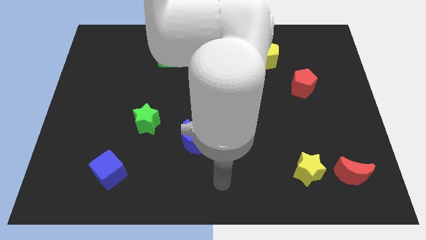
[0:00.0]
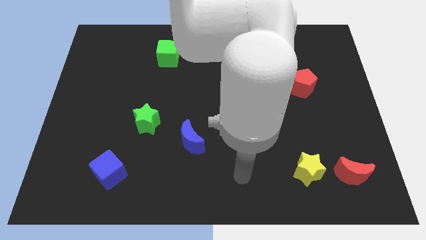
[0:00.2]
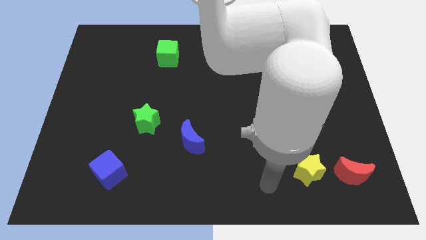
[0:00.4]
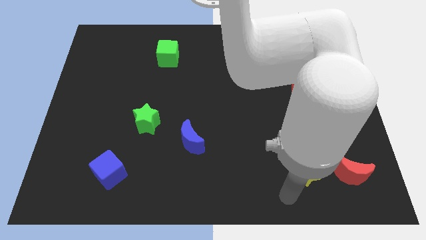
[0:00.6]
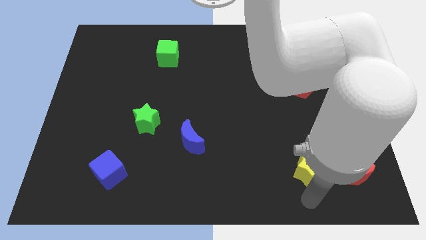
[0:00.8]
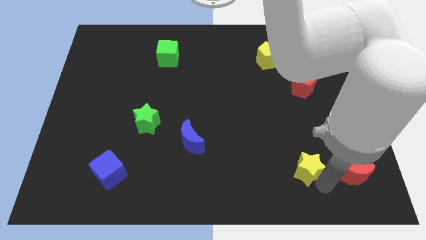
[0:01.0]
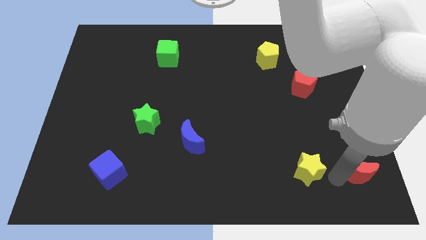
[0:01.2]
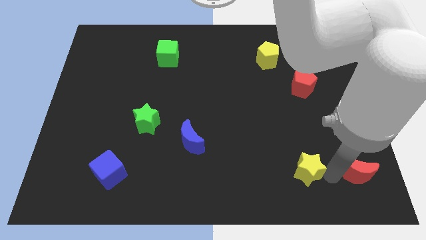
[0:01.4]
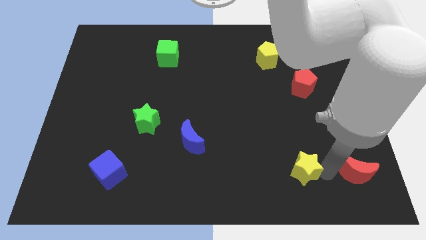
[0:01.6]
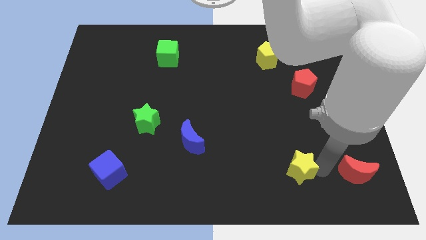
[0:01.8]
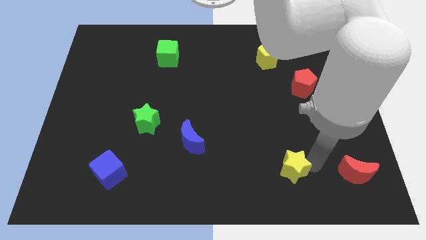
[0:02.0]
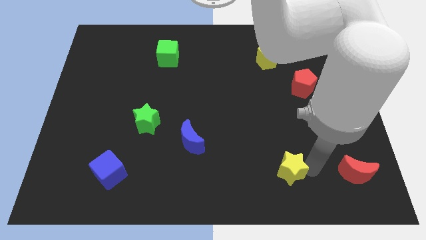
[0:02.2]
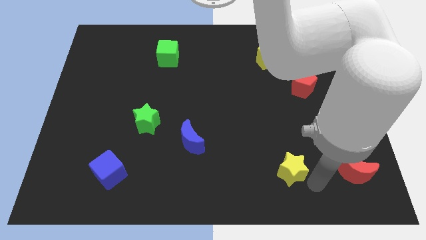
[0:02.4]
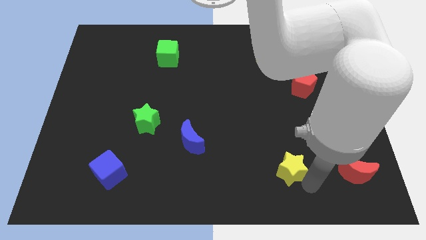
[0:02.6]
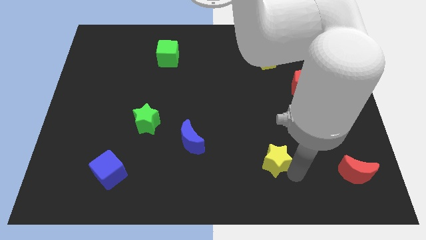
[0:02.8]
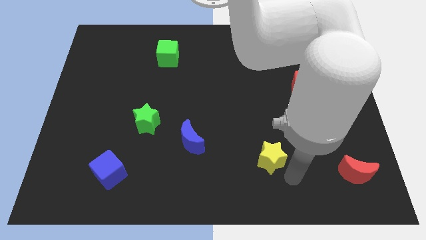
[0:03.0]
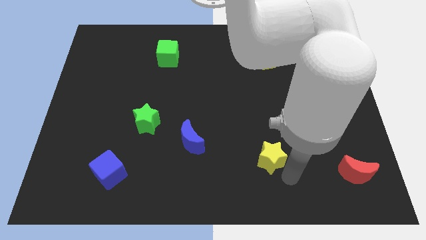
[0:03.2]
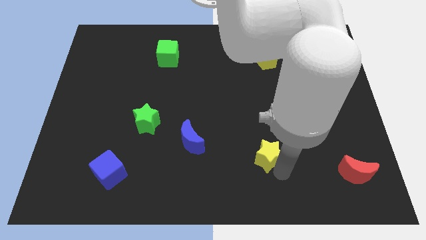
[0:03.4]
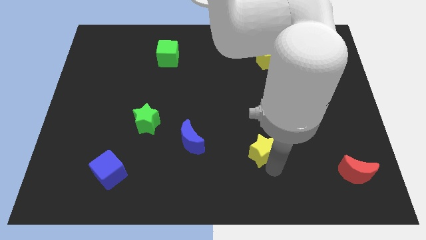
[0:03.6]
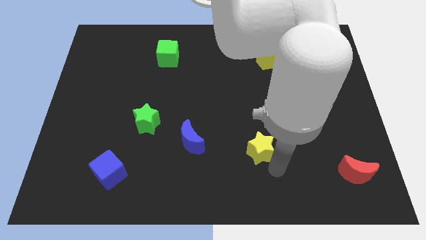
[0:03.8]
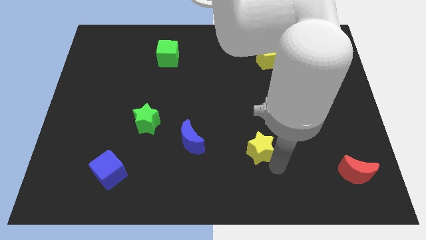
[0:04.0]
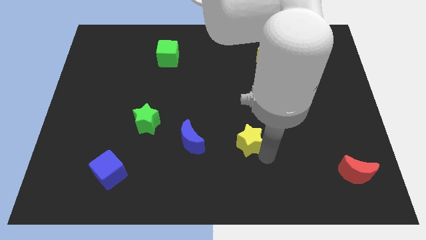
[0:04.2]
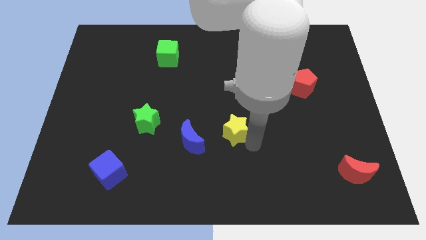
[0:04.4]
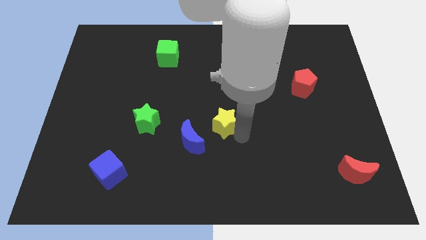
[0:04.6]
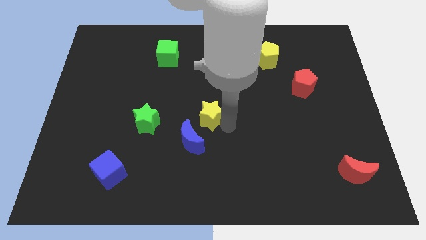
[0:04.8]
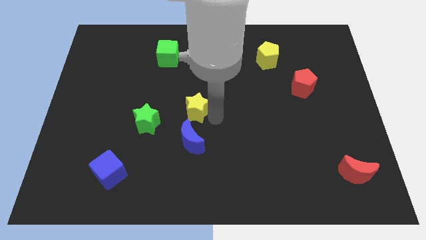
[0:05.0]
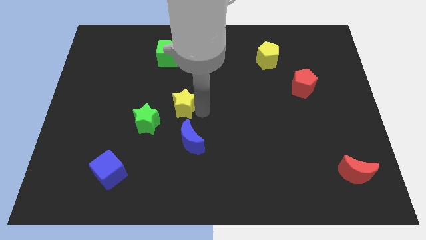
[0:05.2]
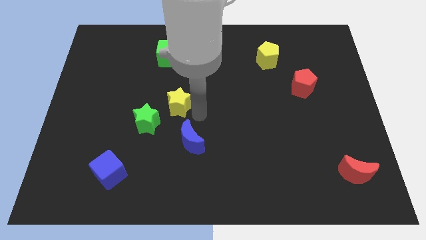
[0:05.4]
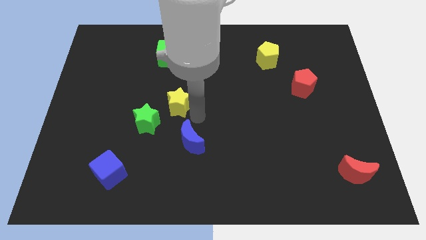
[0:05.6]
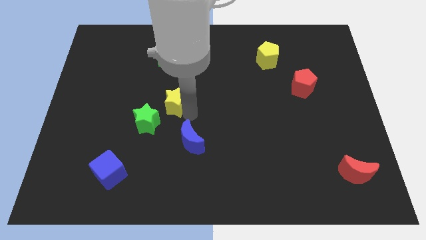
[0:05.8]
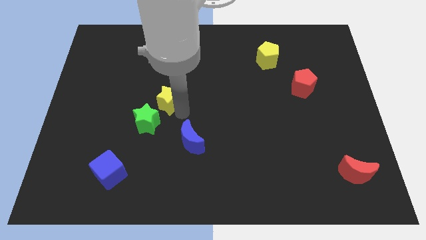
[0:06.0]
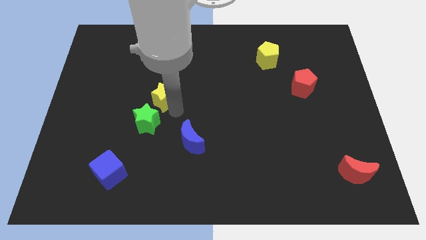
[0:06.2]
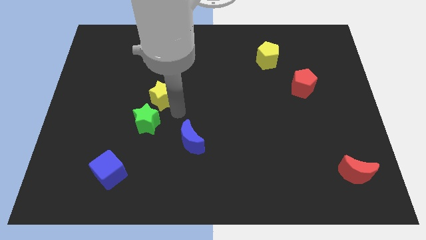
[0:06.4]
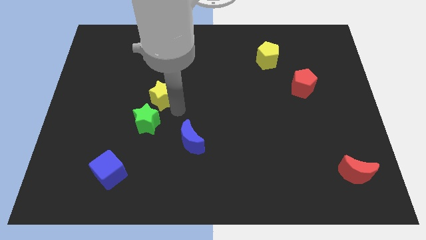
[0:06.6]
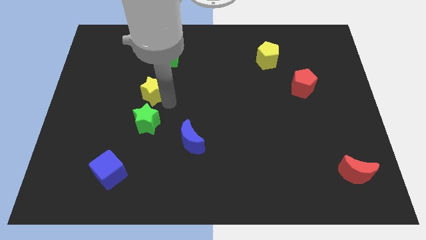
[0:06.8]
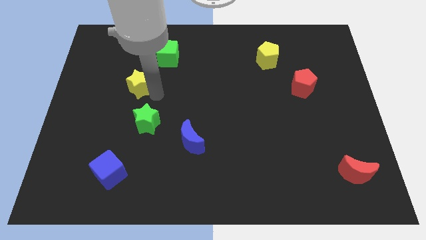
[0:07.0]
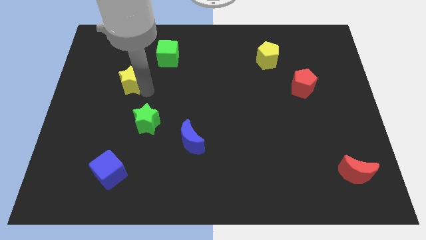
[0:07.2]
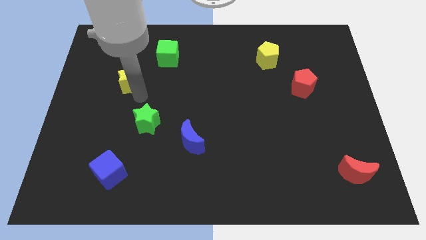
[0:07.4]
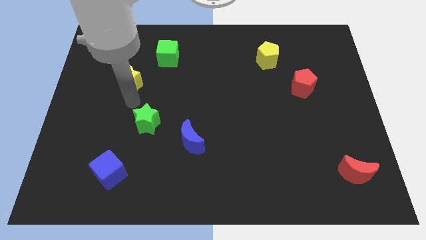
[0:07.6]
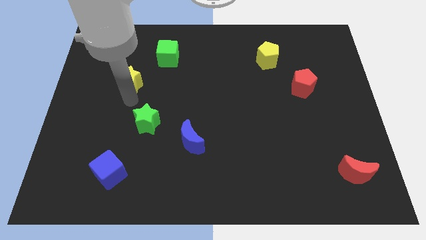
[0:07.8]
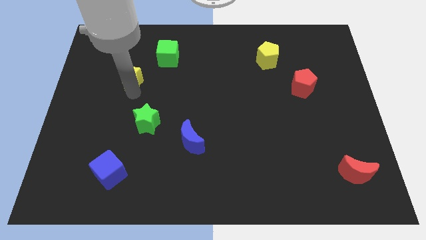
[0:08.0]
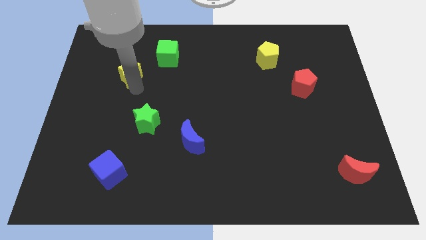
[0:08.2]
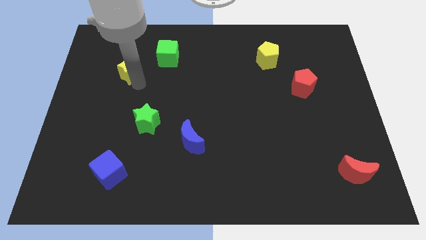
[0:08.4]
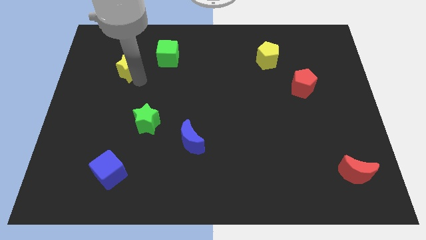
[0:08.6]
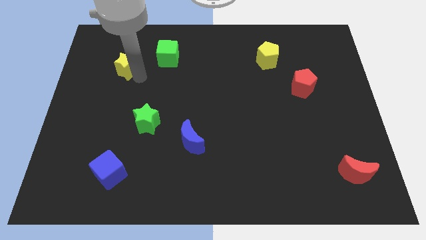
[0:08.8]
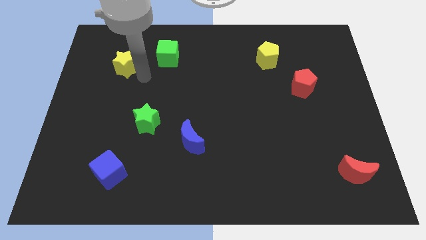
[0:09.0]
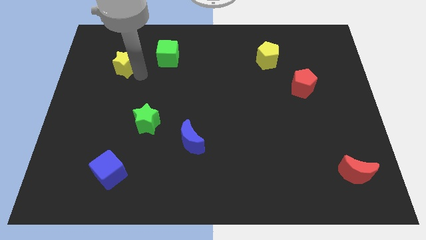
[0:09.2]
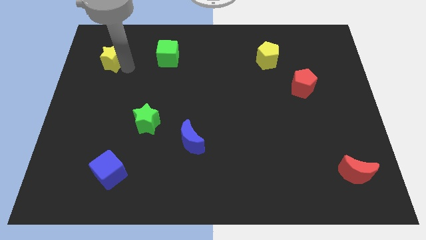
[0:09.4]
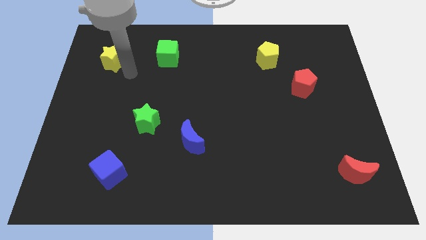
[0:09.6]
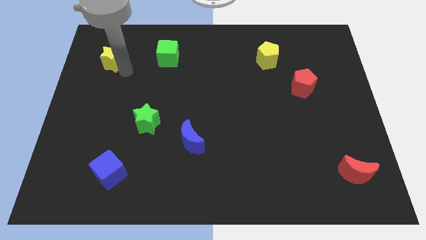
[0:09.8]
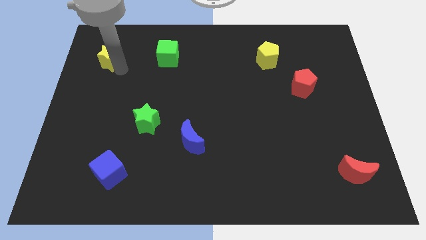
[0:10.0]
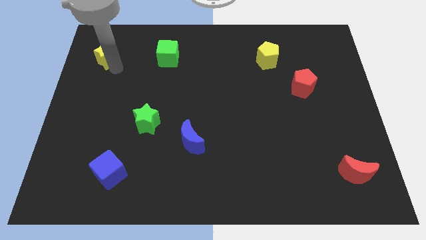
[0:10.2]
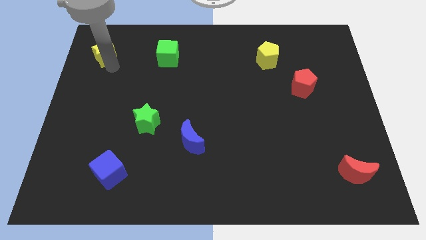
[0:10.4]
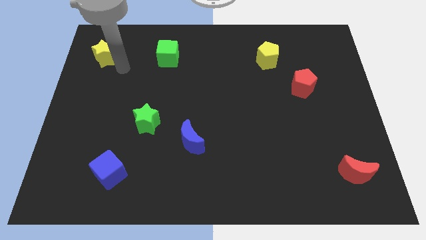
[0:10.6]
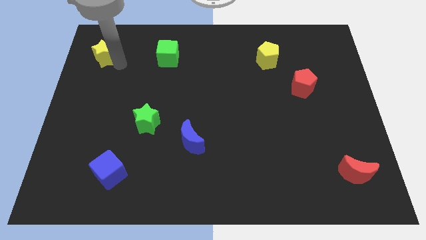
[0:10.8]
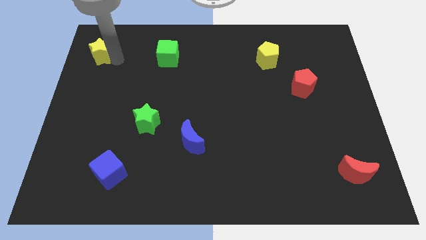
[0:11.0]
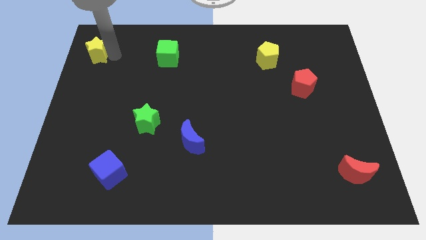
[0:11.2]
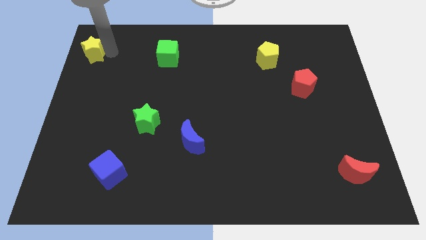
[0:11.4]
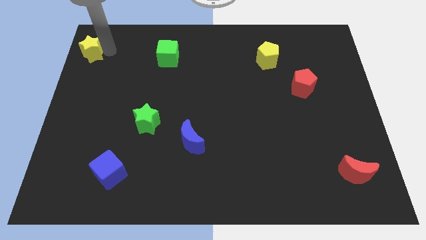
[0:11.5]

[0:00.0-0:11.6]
push the yellow star to the top left

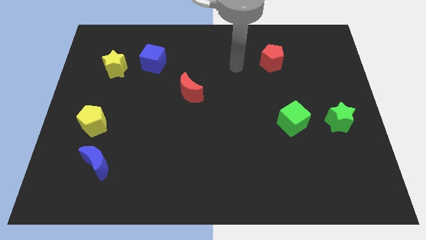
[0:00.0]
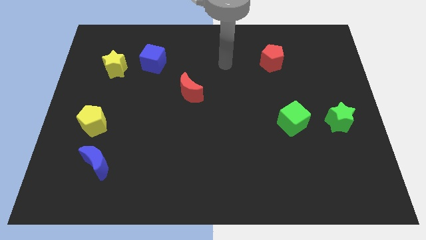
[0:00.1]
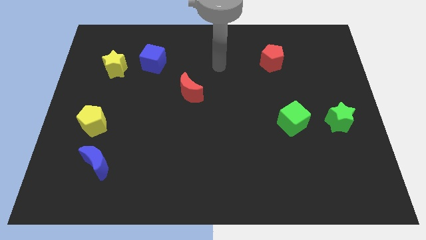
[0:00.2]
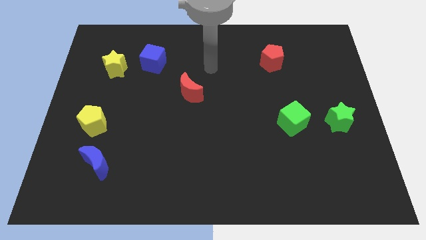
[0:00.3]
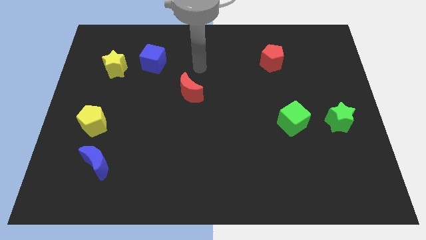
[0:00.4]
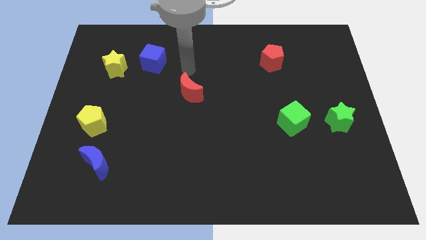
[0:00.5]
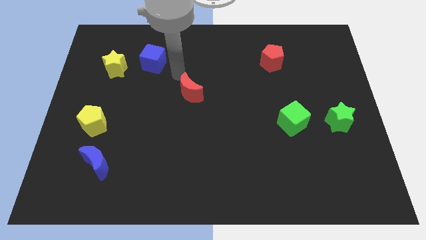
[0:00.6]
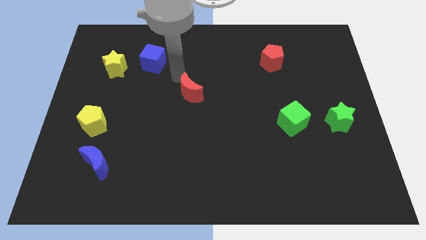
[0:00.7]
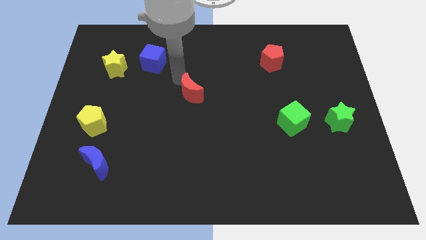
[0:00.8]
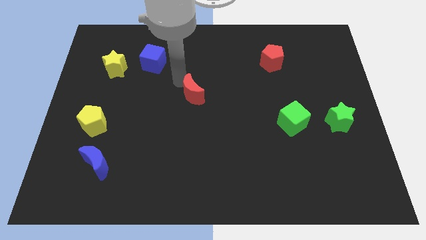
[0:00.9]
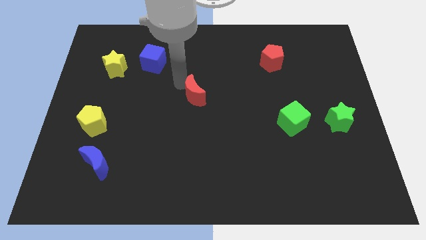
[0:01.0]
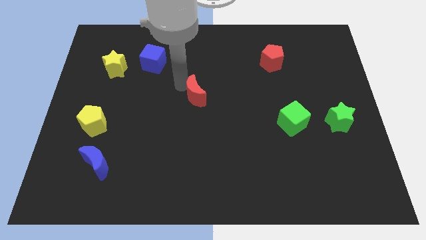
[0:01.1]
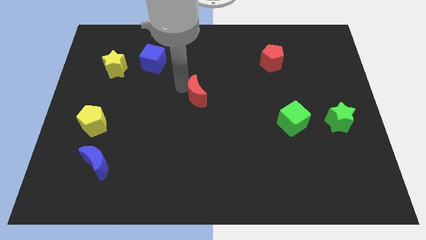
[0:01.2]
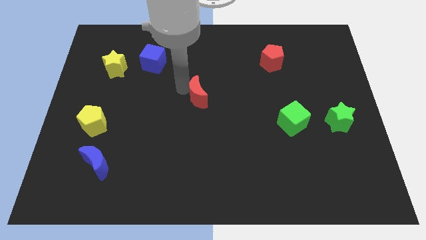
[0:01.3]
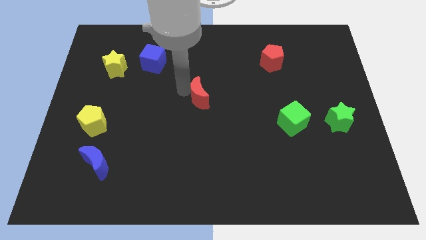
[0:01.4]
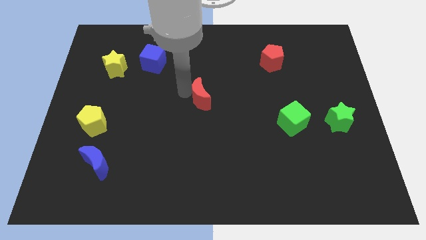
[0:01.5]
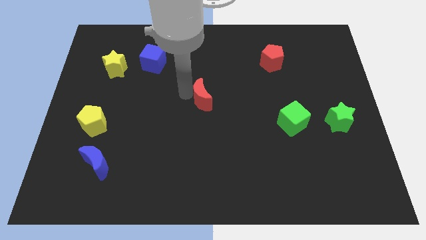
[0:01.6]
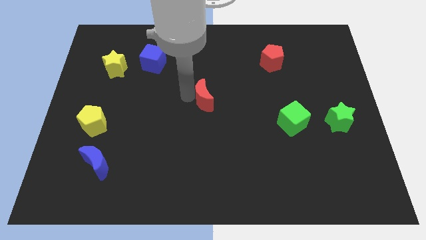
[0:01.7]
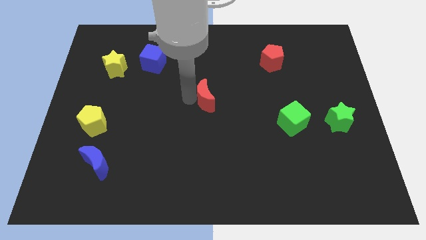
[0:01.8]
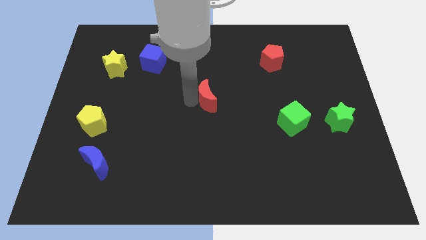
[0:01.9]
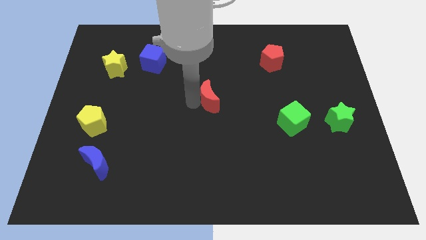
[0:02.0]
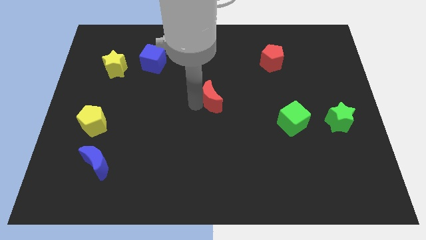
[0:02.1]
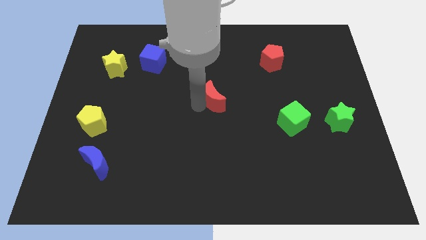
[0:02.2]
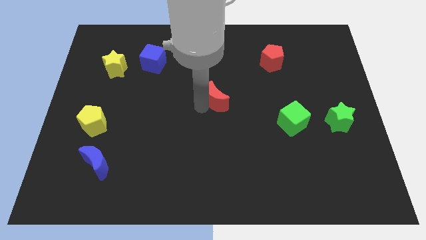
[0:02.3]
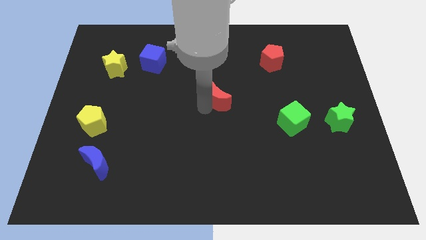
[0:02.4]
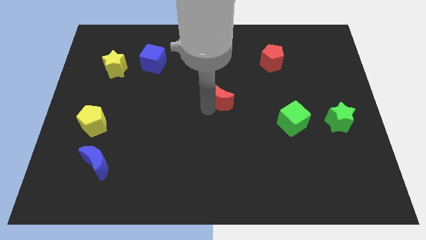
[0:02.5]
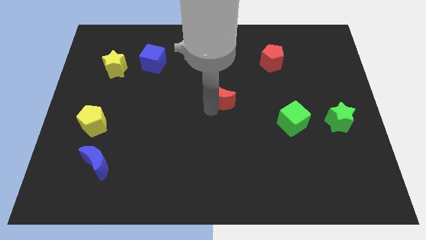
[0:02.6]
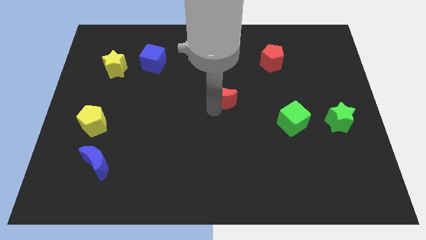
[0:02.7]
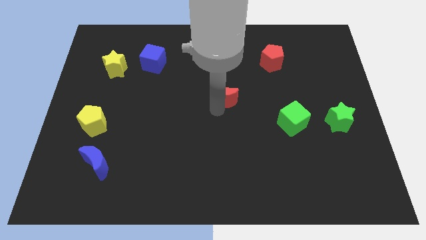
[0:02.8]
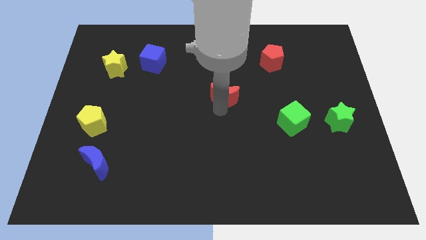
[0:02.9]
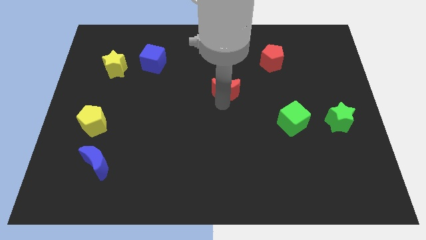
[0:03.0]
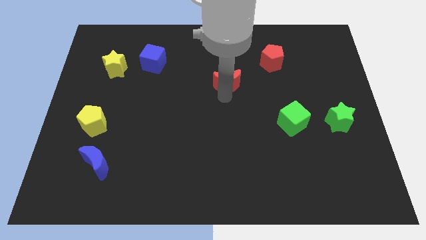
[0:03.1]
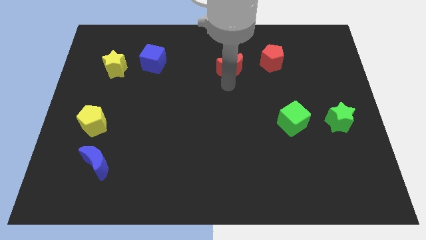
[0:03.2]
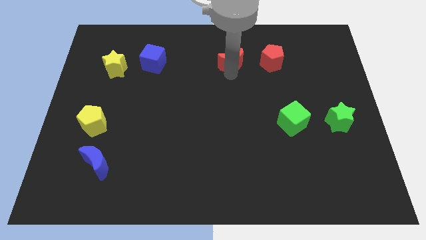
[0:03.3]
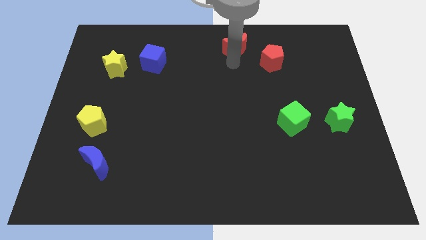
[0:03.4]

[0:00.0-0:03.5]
move the red moon to the top
